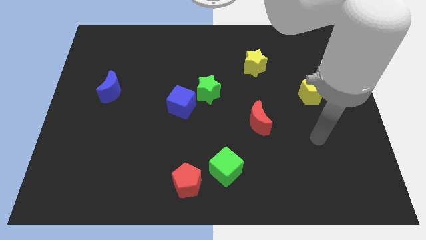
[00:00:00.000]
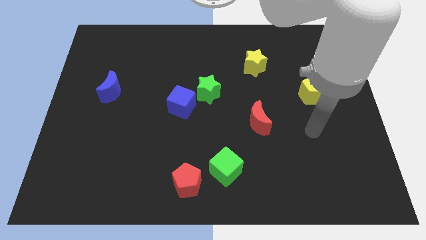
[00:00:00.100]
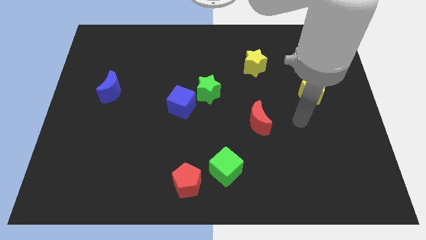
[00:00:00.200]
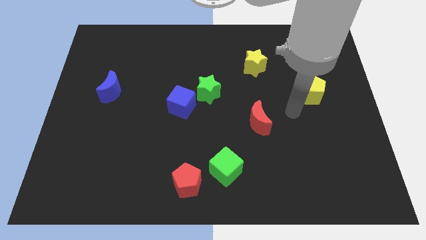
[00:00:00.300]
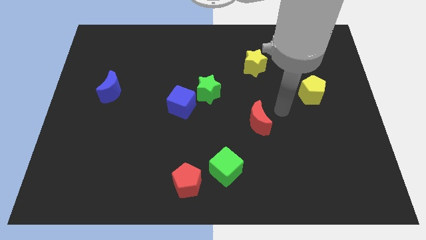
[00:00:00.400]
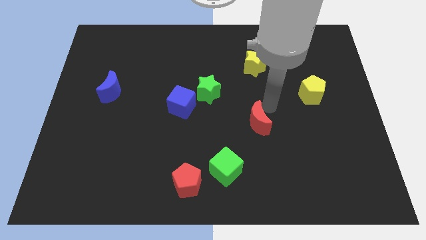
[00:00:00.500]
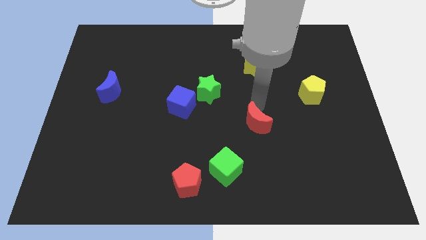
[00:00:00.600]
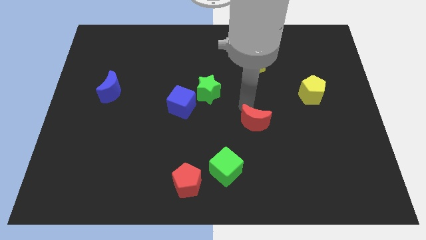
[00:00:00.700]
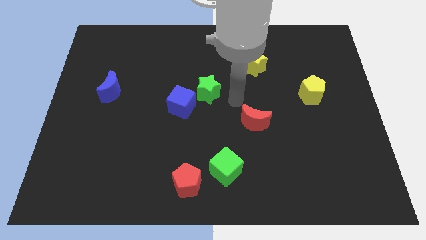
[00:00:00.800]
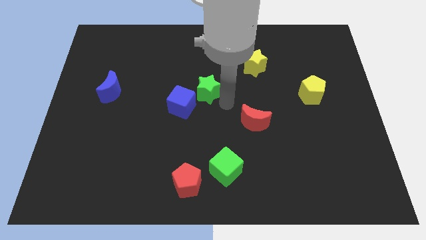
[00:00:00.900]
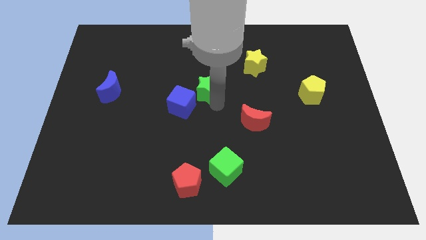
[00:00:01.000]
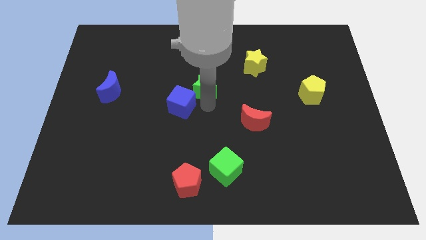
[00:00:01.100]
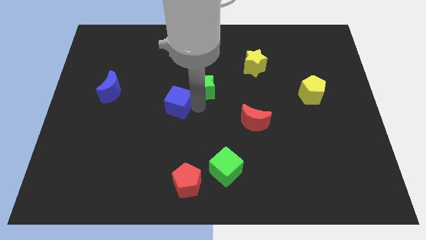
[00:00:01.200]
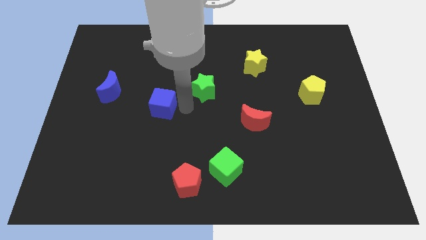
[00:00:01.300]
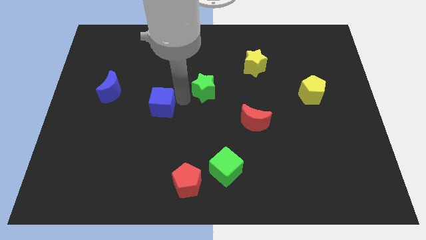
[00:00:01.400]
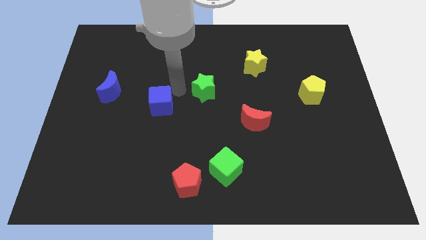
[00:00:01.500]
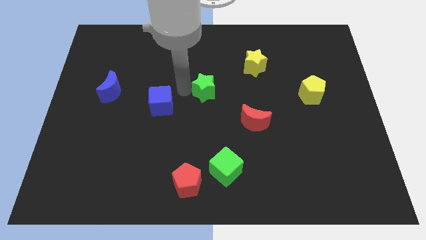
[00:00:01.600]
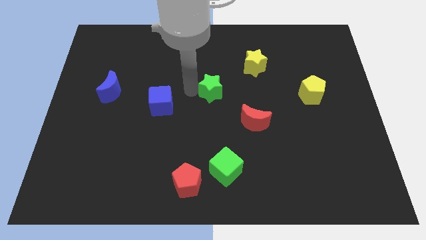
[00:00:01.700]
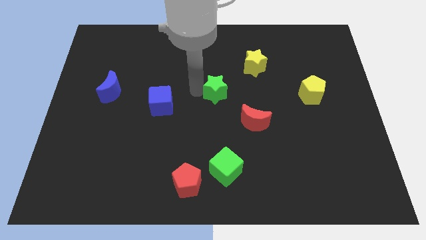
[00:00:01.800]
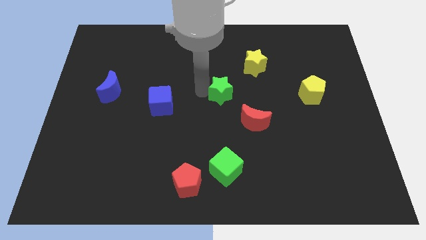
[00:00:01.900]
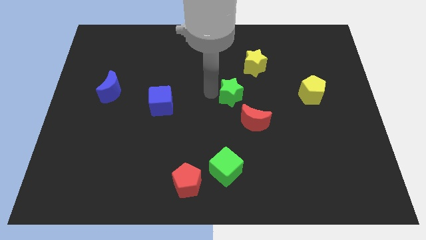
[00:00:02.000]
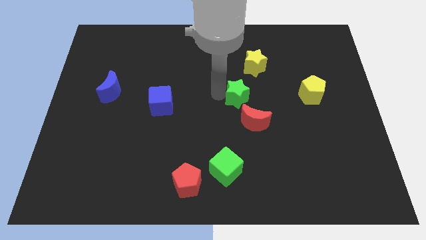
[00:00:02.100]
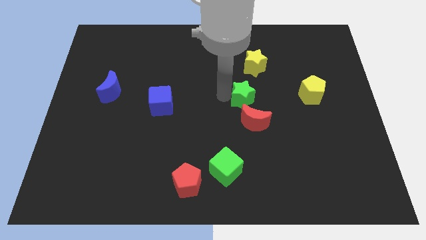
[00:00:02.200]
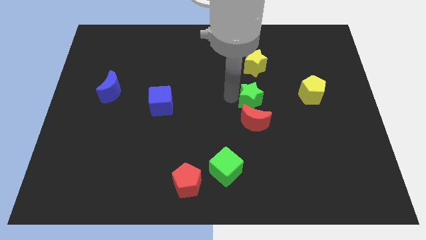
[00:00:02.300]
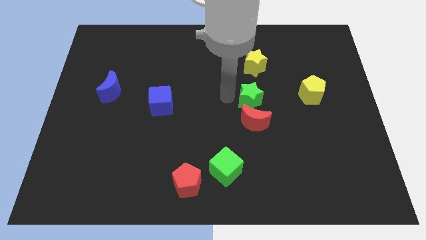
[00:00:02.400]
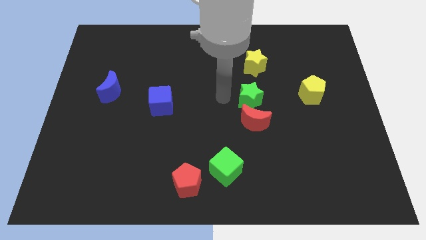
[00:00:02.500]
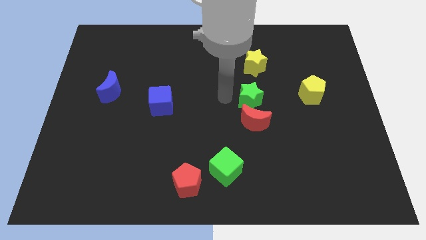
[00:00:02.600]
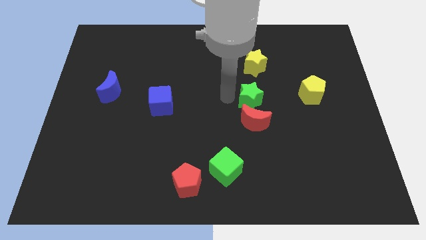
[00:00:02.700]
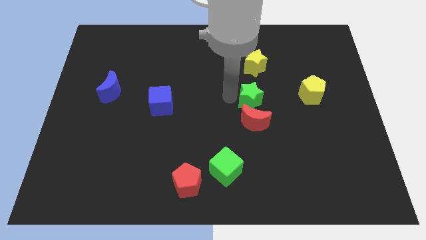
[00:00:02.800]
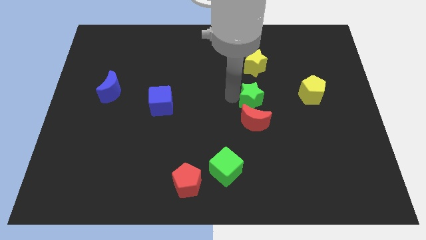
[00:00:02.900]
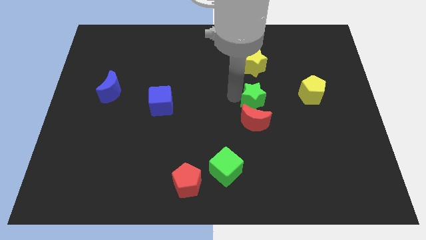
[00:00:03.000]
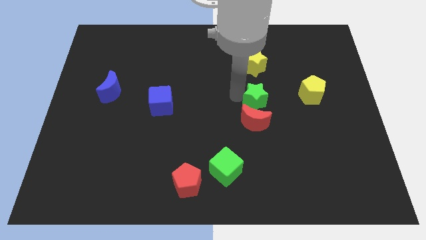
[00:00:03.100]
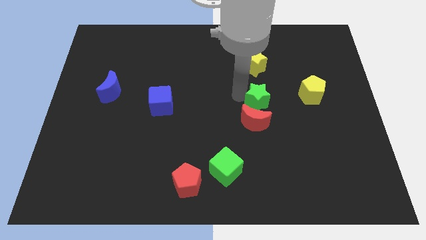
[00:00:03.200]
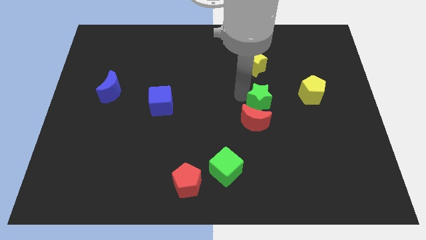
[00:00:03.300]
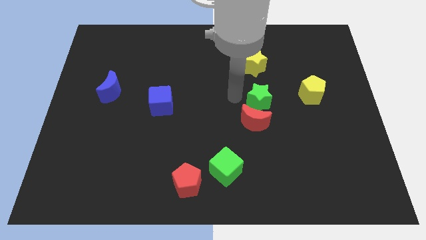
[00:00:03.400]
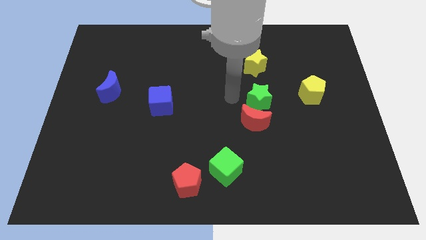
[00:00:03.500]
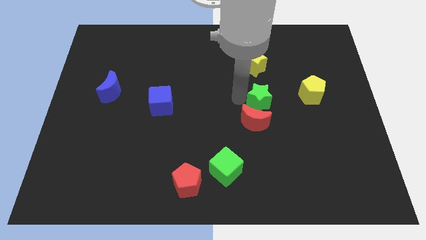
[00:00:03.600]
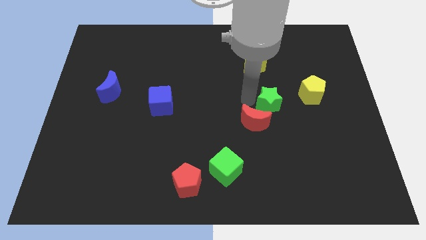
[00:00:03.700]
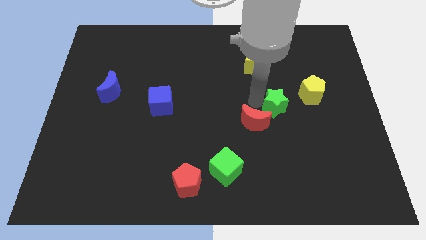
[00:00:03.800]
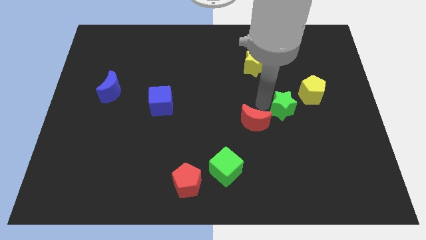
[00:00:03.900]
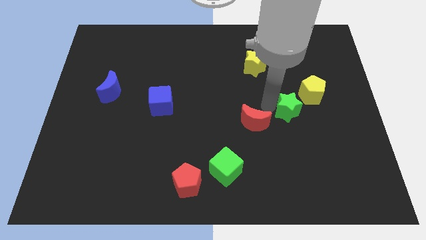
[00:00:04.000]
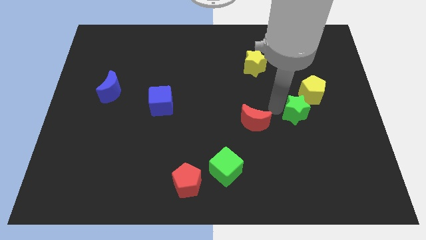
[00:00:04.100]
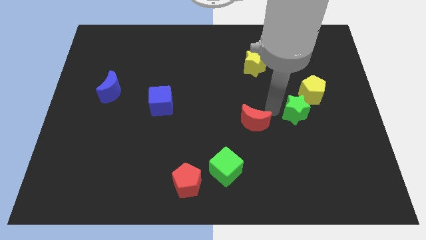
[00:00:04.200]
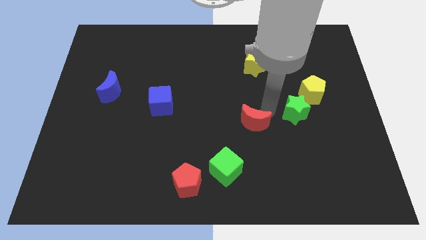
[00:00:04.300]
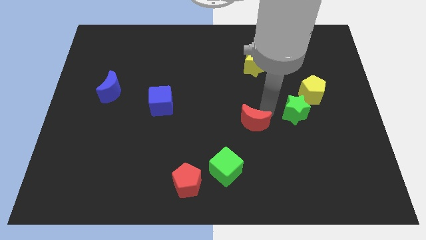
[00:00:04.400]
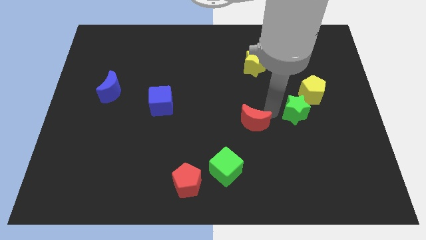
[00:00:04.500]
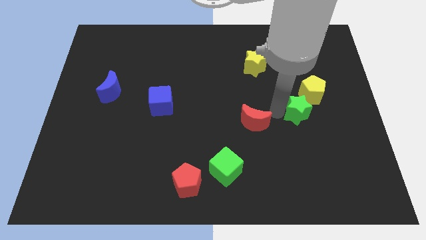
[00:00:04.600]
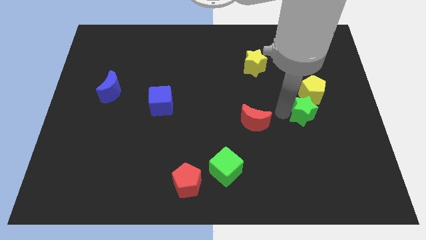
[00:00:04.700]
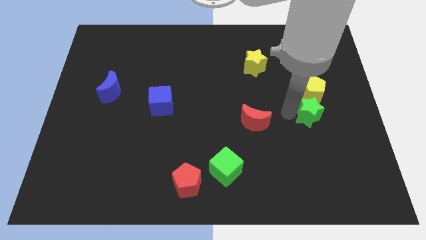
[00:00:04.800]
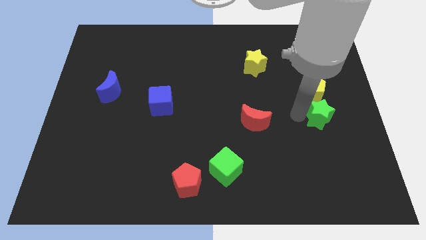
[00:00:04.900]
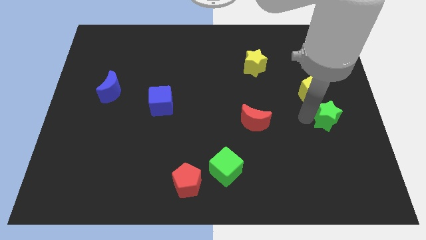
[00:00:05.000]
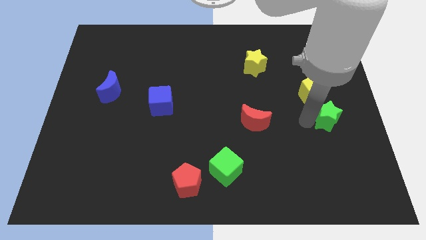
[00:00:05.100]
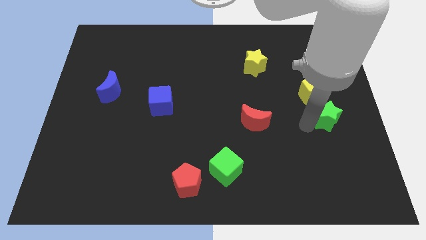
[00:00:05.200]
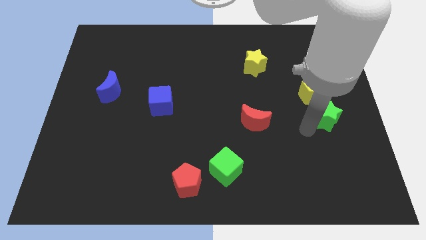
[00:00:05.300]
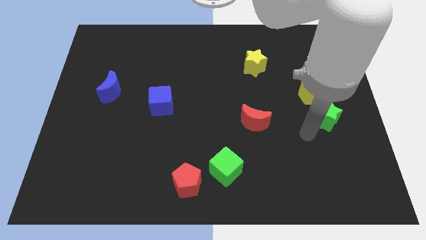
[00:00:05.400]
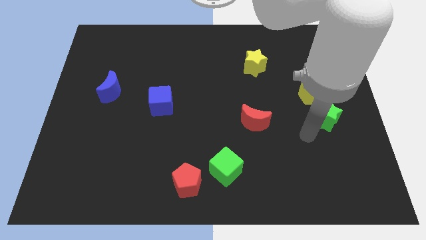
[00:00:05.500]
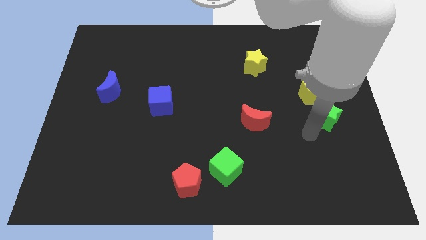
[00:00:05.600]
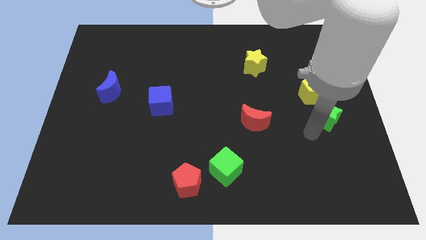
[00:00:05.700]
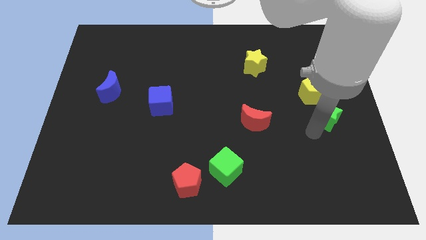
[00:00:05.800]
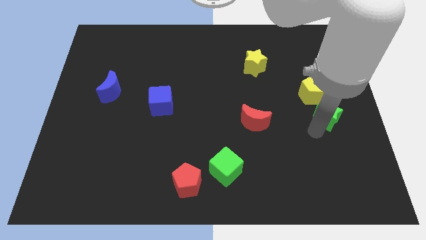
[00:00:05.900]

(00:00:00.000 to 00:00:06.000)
move the green star to the right side of the board

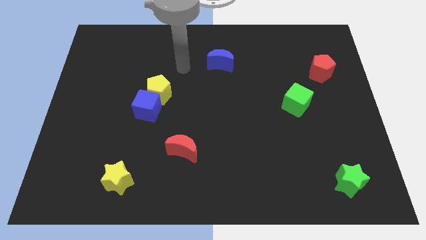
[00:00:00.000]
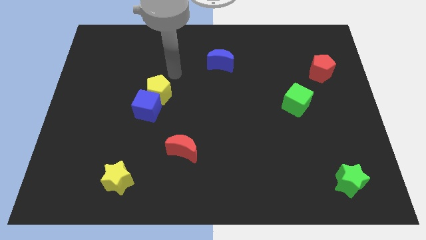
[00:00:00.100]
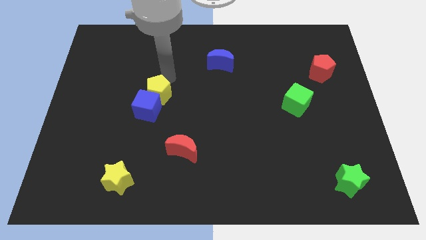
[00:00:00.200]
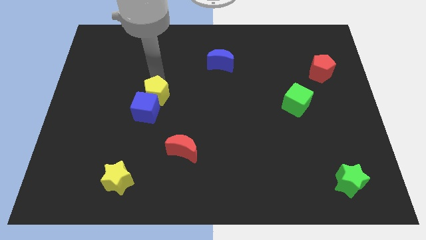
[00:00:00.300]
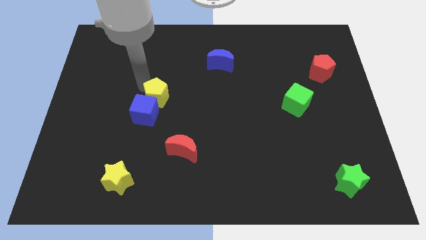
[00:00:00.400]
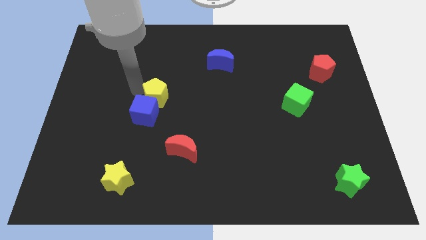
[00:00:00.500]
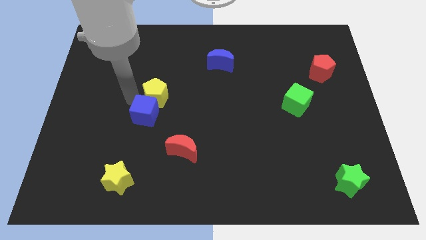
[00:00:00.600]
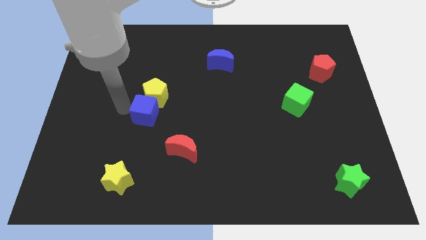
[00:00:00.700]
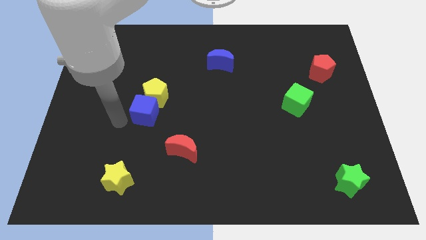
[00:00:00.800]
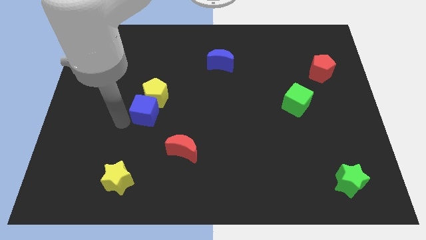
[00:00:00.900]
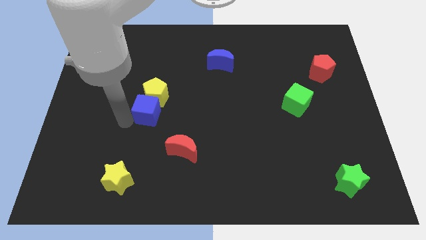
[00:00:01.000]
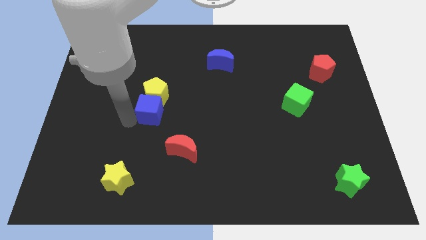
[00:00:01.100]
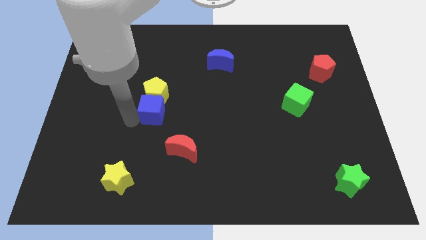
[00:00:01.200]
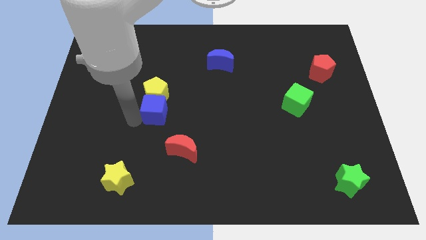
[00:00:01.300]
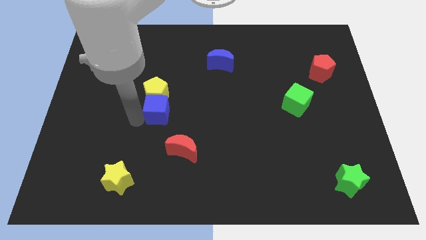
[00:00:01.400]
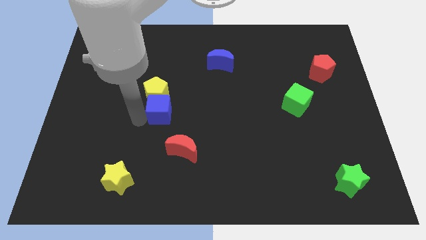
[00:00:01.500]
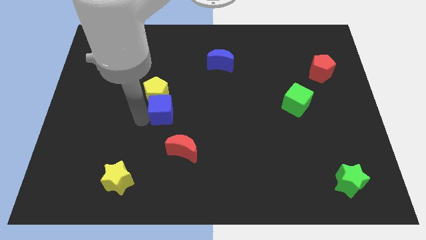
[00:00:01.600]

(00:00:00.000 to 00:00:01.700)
slide the blue cube to the middle
